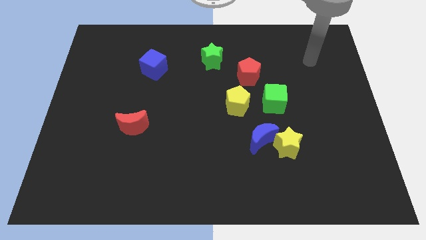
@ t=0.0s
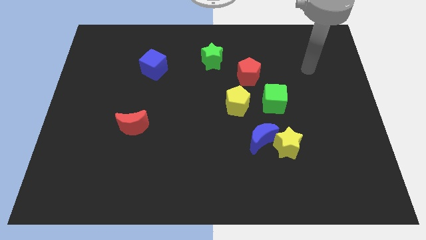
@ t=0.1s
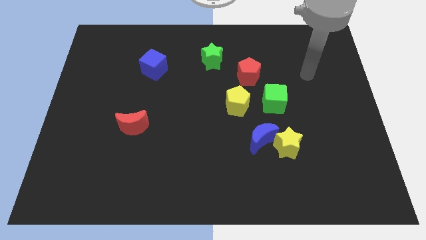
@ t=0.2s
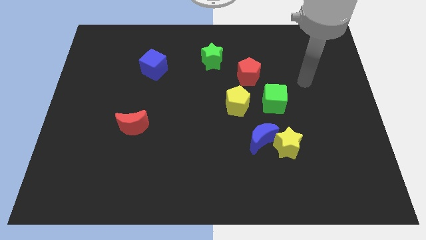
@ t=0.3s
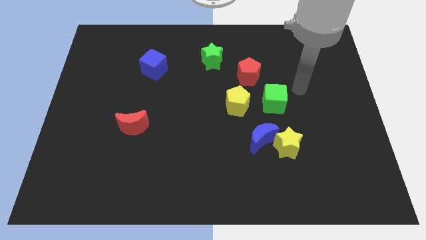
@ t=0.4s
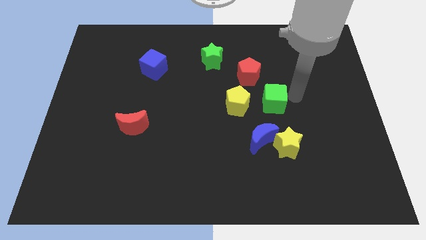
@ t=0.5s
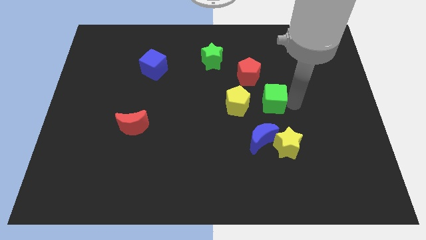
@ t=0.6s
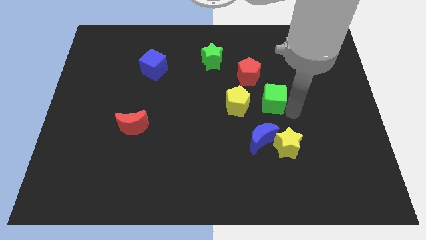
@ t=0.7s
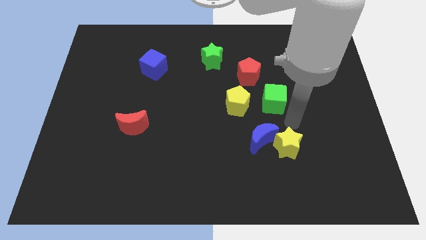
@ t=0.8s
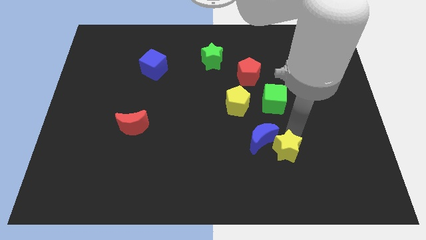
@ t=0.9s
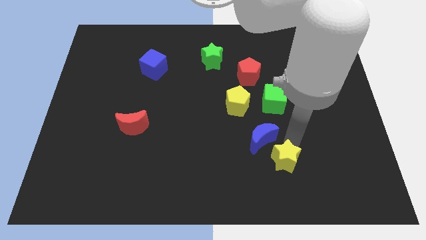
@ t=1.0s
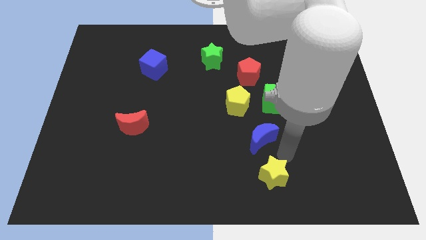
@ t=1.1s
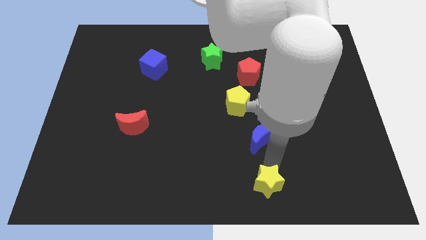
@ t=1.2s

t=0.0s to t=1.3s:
separate the blue moon from the yellow star

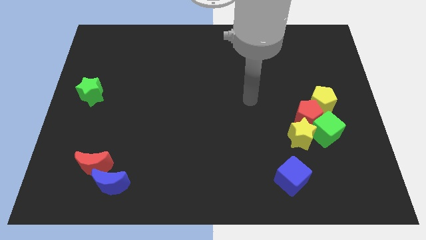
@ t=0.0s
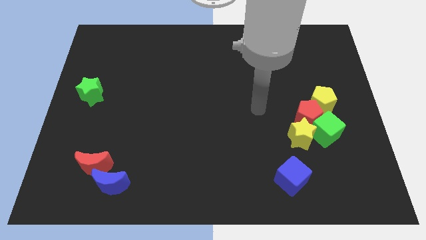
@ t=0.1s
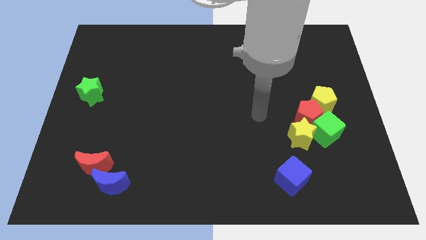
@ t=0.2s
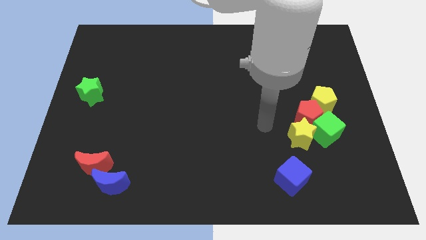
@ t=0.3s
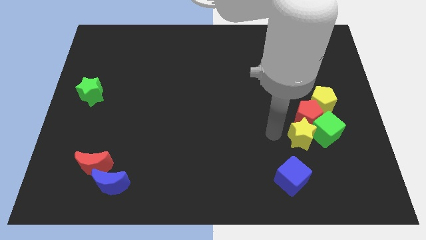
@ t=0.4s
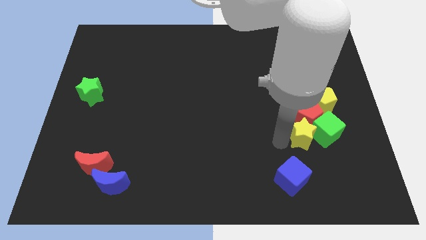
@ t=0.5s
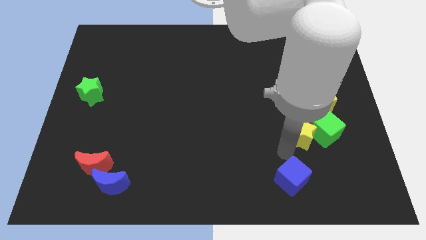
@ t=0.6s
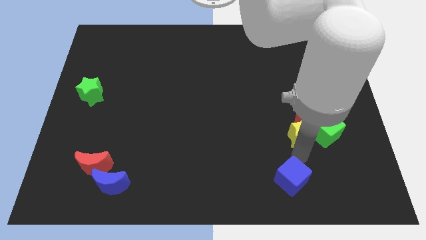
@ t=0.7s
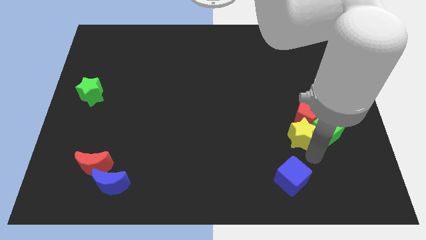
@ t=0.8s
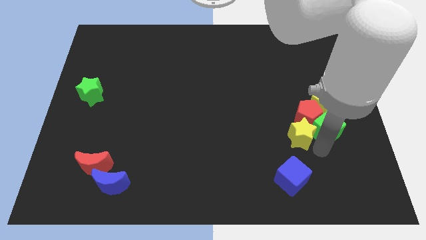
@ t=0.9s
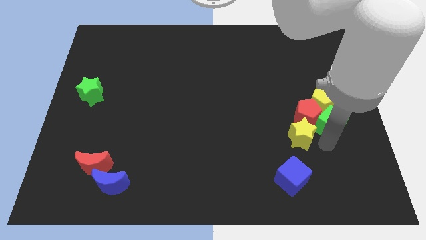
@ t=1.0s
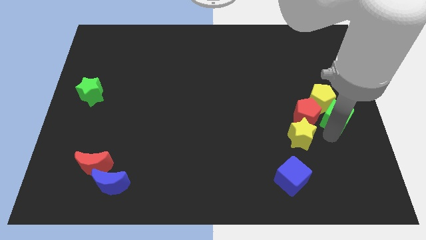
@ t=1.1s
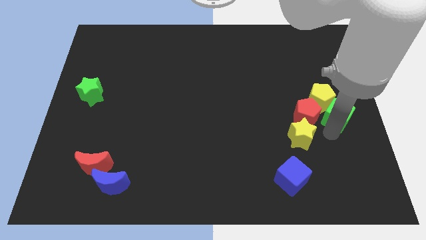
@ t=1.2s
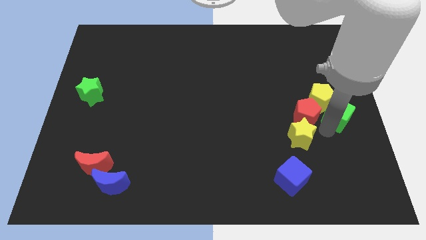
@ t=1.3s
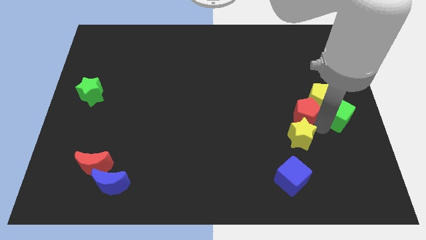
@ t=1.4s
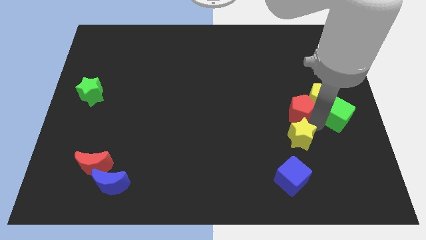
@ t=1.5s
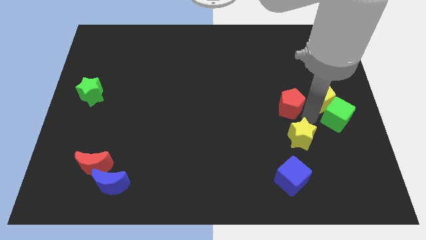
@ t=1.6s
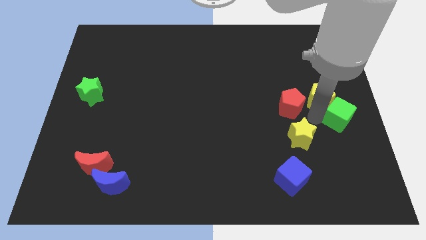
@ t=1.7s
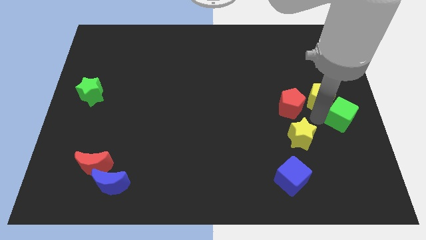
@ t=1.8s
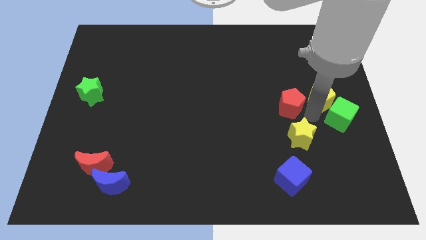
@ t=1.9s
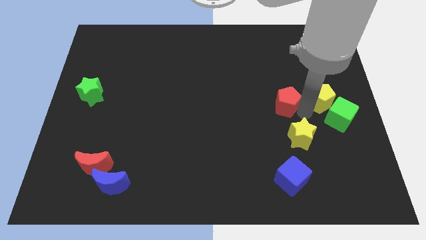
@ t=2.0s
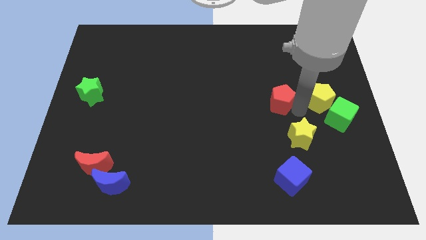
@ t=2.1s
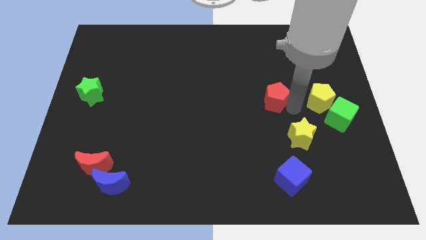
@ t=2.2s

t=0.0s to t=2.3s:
separate the red pentagon from the green cube, yellow star, and yellow pentagon

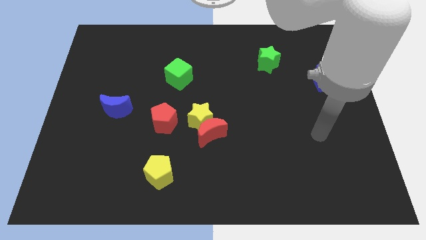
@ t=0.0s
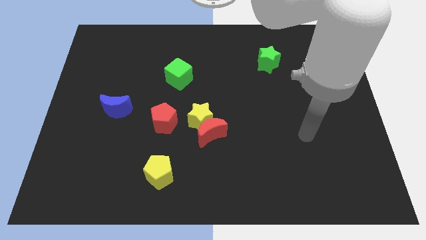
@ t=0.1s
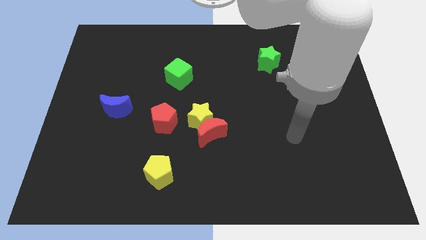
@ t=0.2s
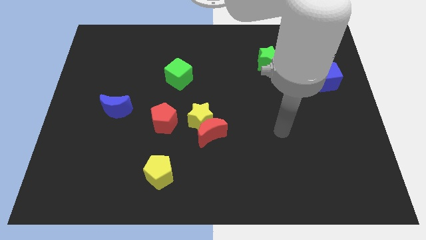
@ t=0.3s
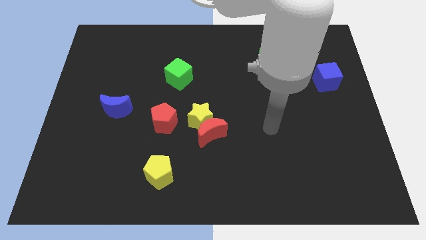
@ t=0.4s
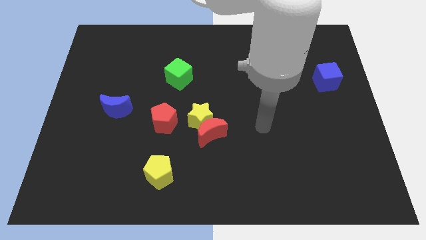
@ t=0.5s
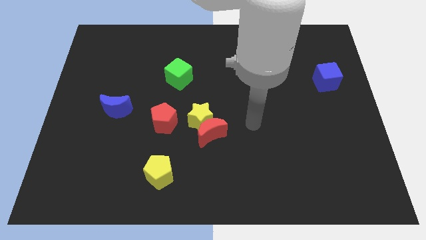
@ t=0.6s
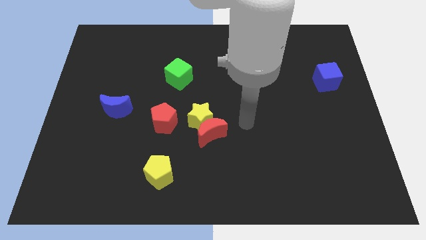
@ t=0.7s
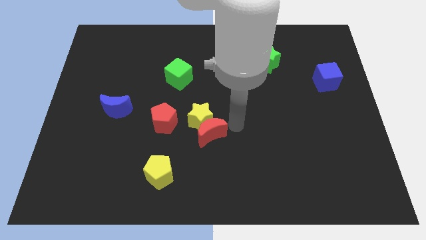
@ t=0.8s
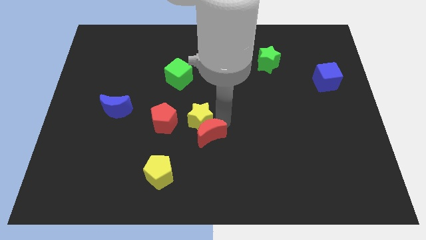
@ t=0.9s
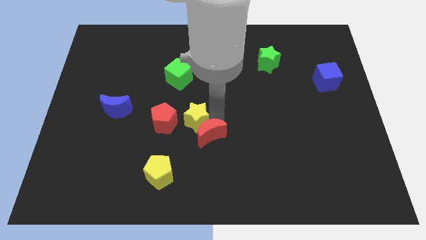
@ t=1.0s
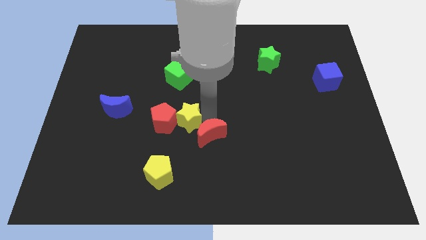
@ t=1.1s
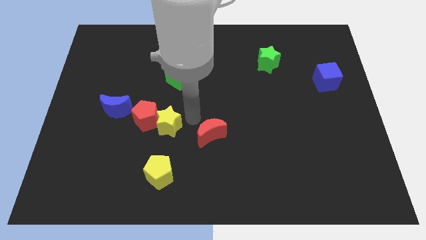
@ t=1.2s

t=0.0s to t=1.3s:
separate the red moon from the yellow star

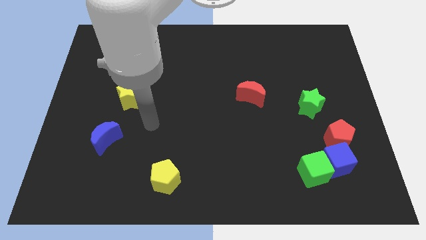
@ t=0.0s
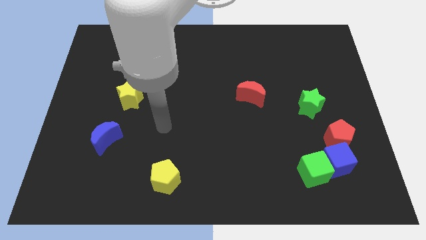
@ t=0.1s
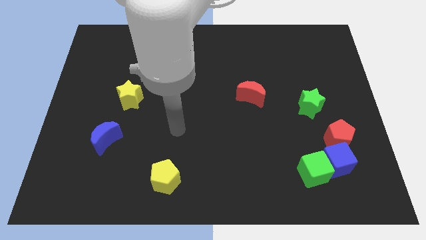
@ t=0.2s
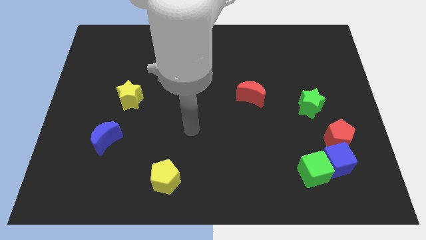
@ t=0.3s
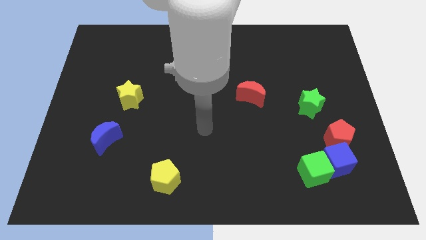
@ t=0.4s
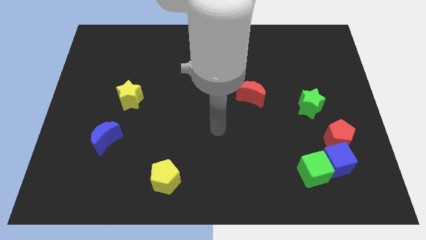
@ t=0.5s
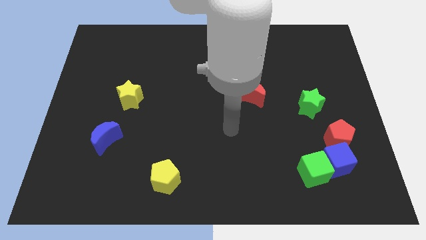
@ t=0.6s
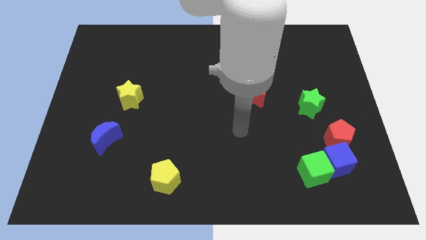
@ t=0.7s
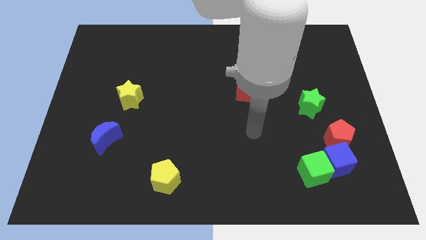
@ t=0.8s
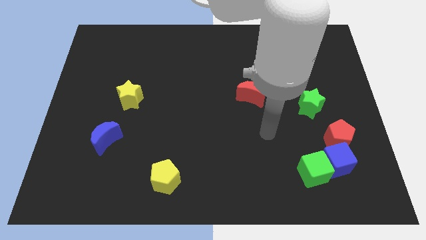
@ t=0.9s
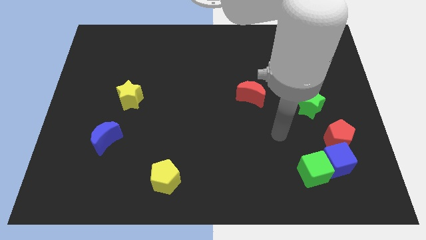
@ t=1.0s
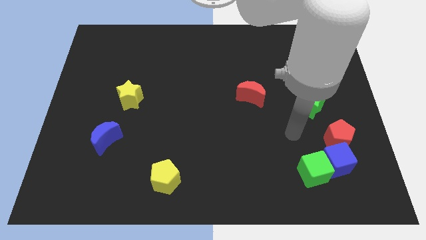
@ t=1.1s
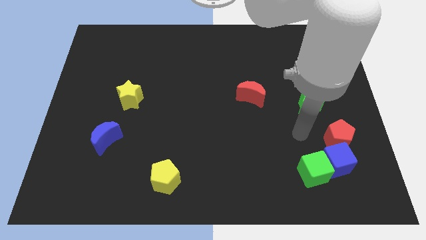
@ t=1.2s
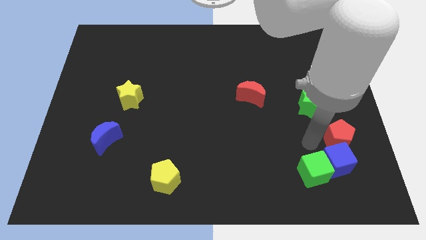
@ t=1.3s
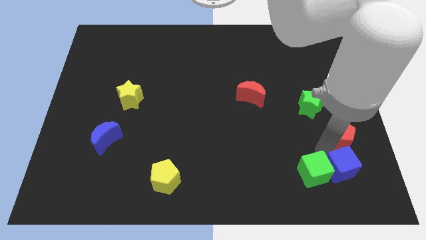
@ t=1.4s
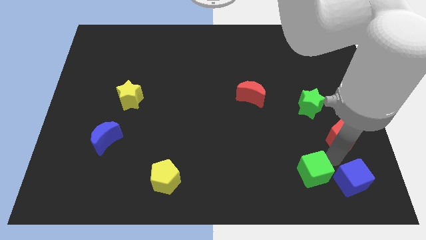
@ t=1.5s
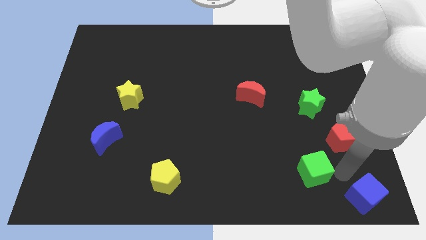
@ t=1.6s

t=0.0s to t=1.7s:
separate the green cube from the blue cube

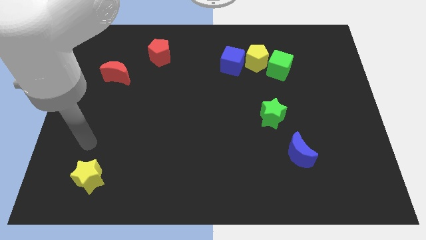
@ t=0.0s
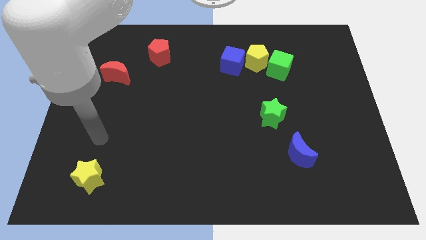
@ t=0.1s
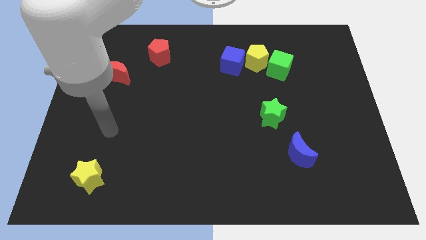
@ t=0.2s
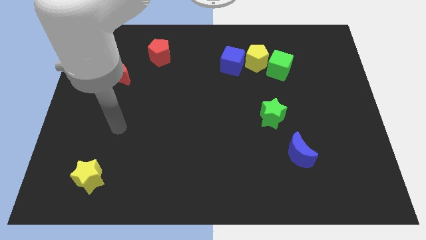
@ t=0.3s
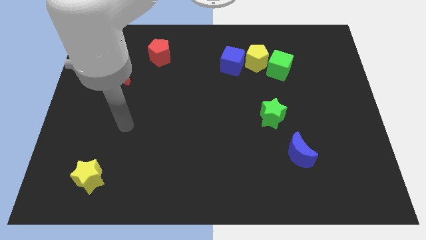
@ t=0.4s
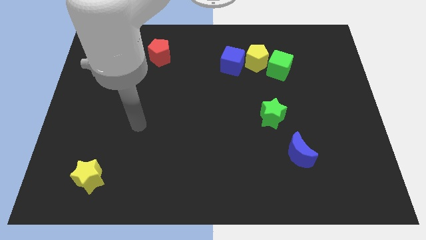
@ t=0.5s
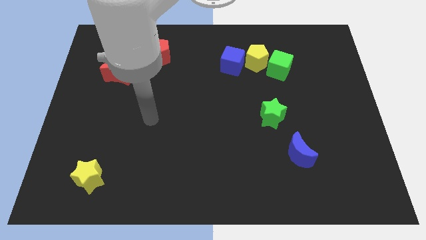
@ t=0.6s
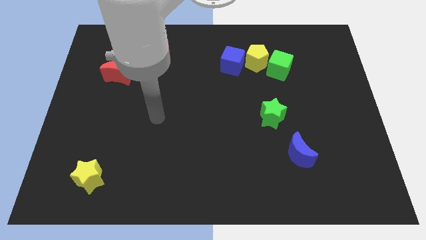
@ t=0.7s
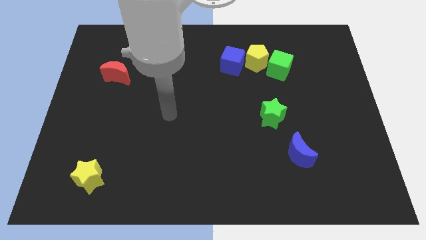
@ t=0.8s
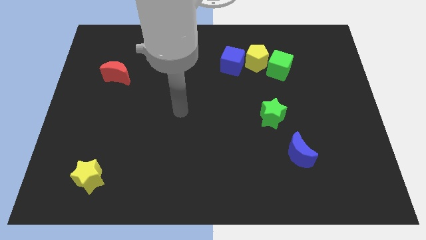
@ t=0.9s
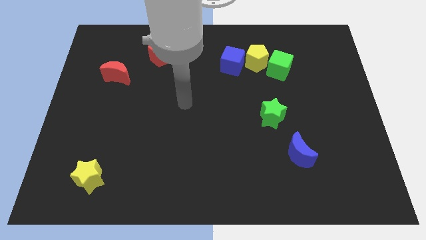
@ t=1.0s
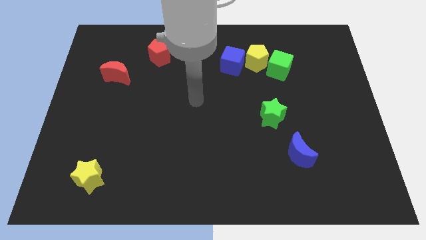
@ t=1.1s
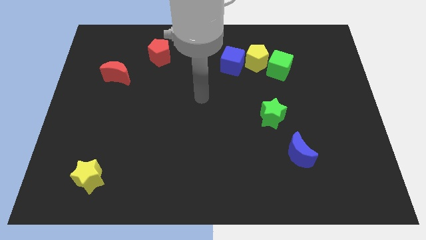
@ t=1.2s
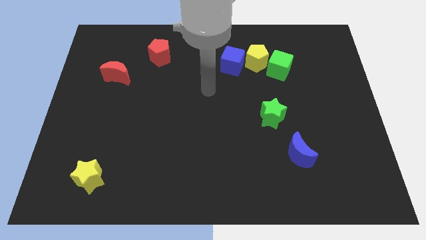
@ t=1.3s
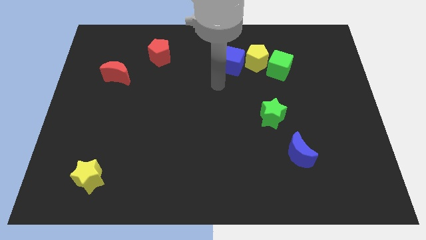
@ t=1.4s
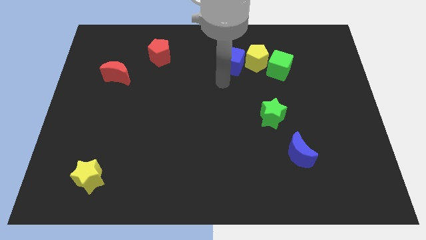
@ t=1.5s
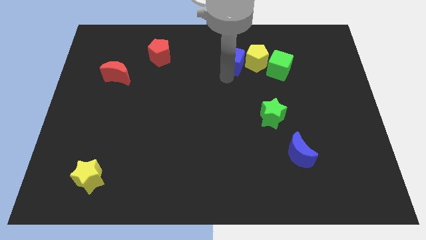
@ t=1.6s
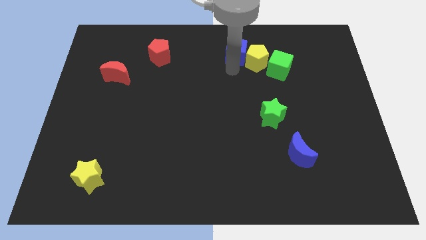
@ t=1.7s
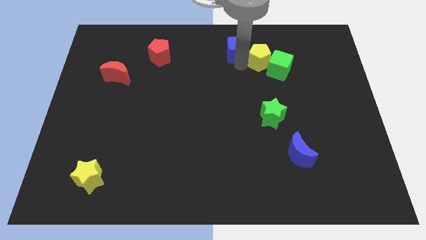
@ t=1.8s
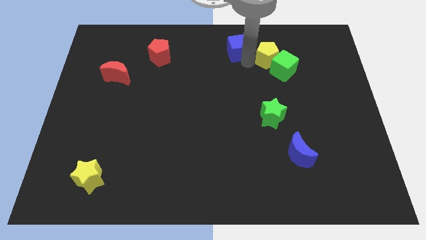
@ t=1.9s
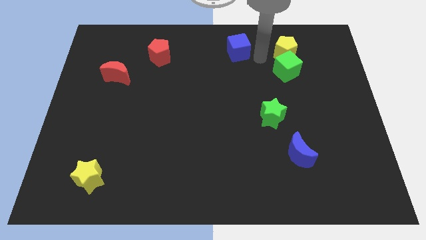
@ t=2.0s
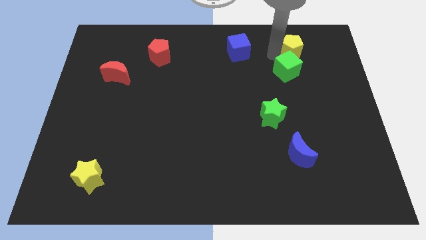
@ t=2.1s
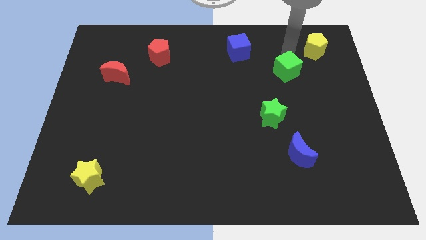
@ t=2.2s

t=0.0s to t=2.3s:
pull the green cube apart from the yellow pentagon

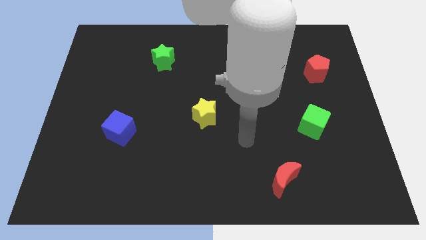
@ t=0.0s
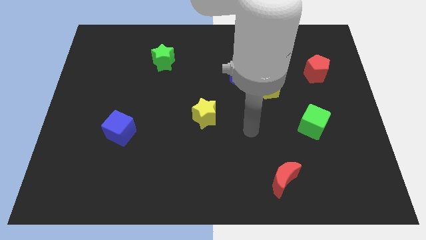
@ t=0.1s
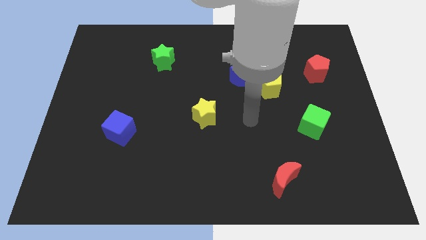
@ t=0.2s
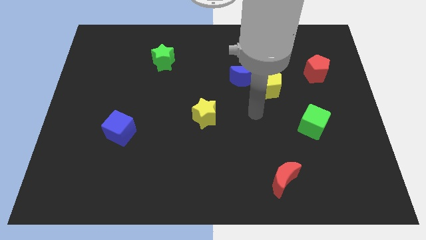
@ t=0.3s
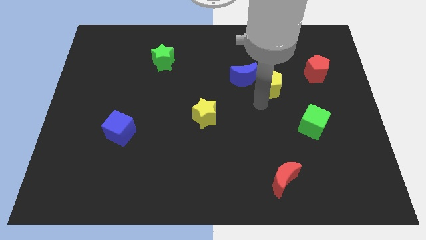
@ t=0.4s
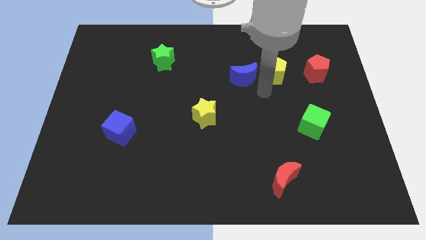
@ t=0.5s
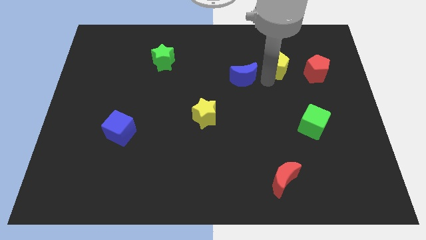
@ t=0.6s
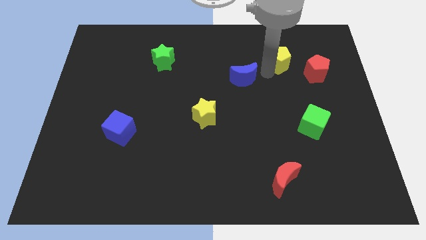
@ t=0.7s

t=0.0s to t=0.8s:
separate the blue moon from the yellow pentagon
